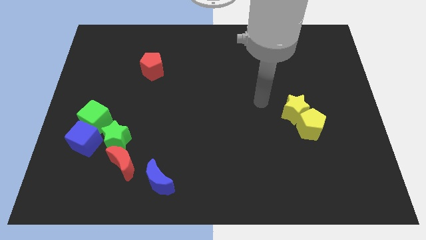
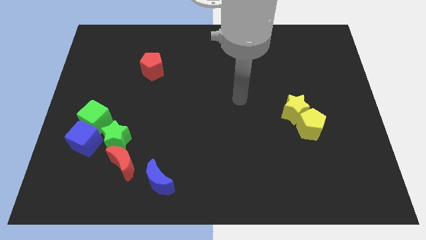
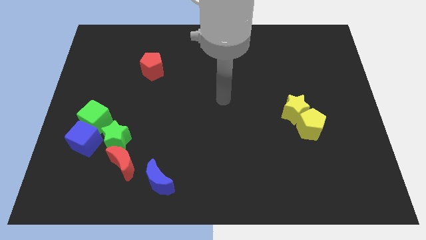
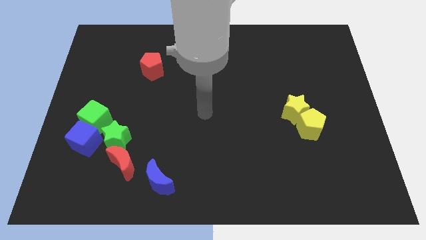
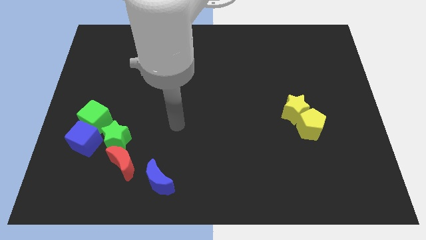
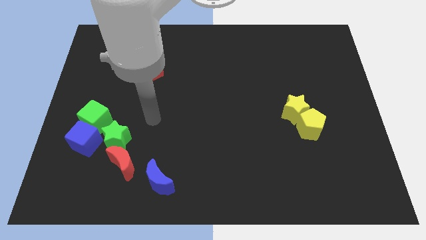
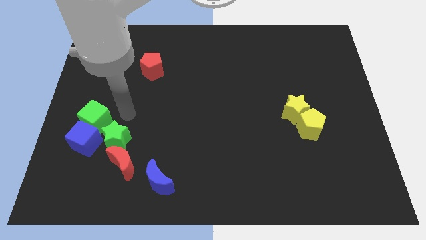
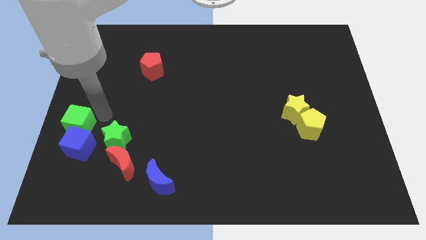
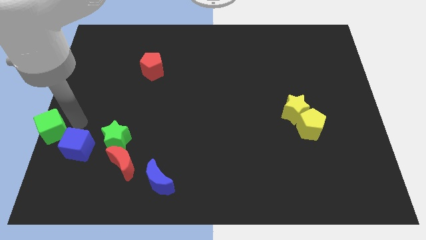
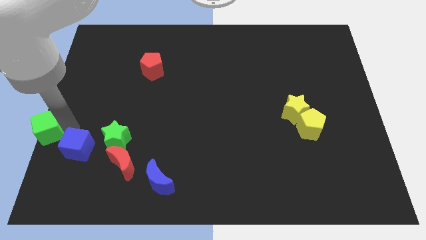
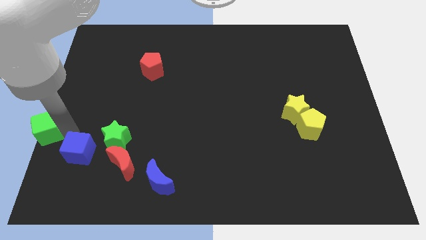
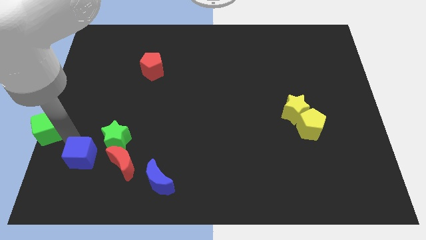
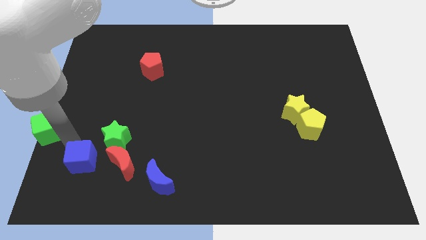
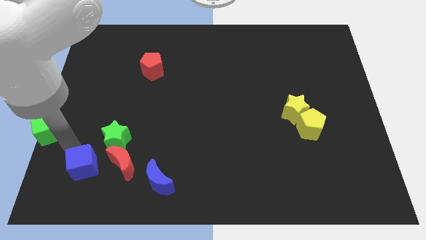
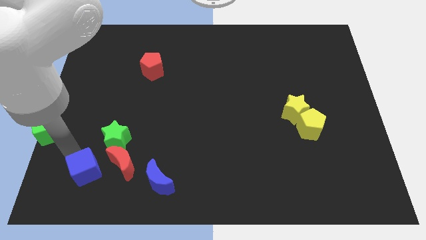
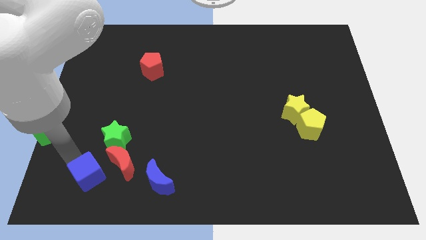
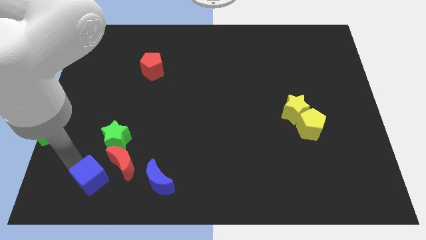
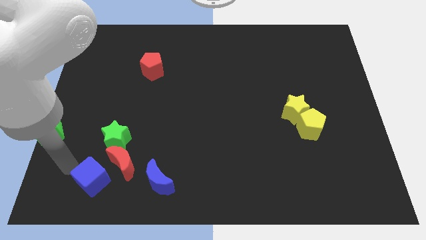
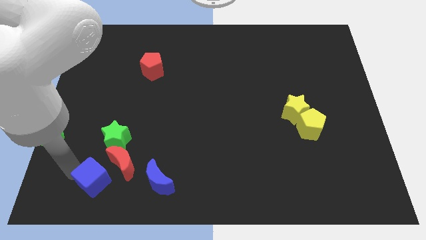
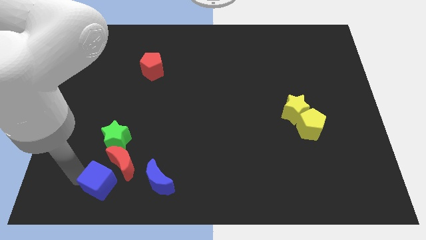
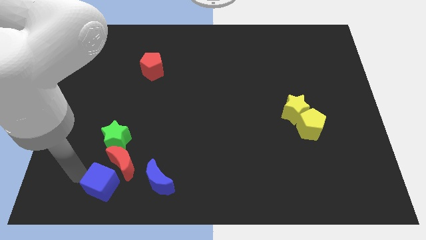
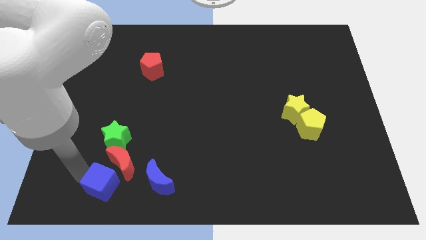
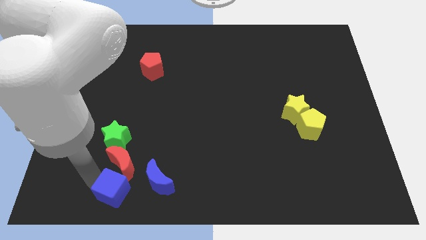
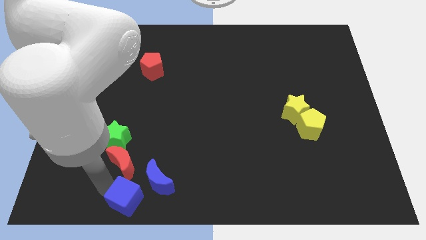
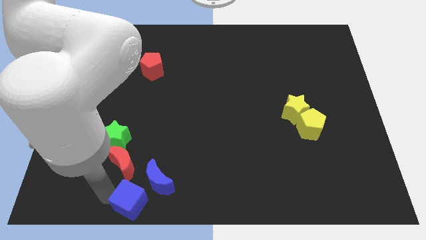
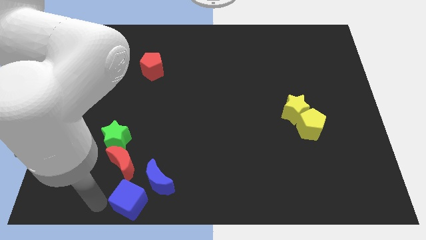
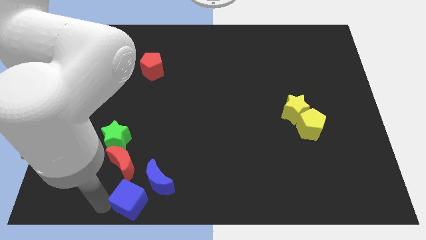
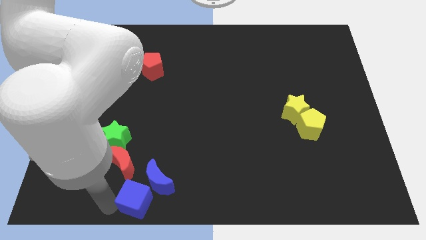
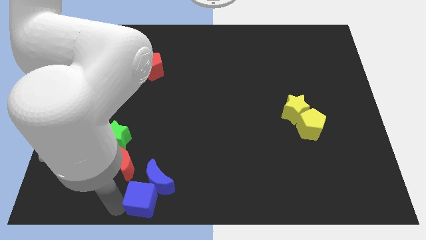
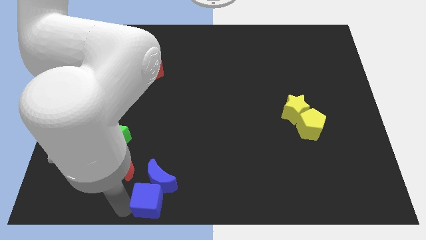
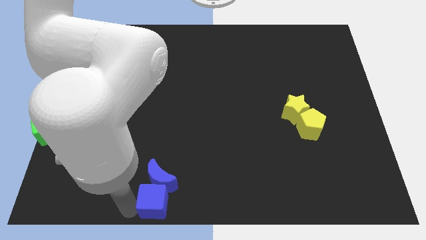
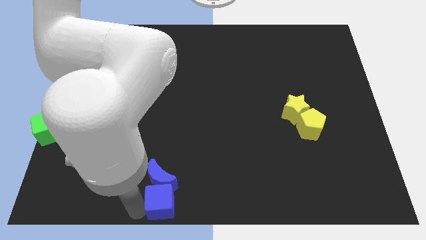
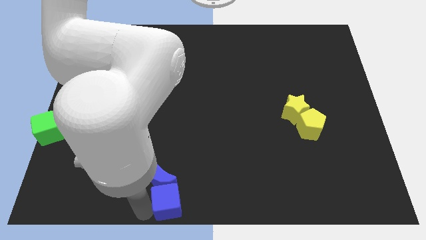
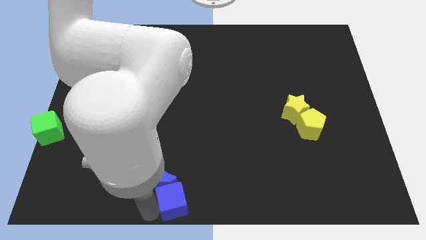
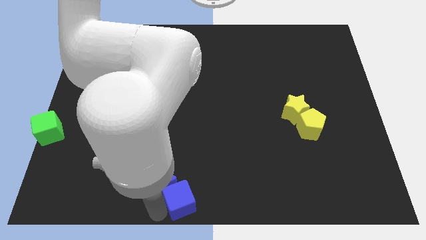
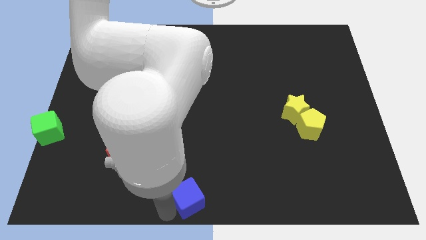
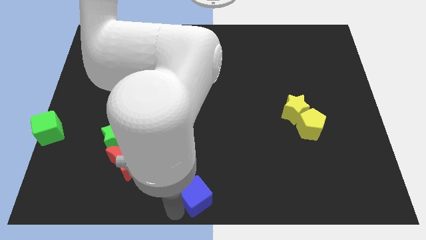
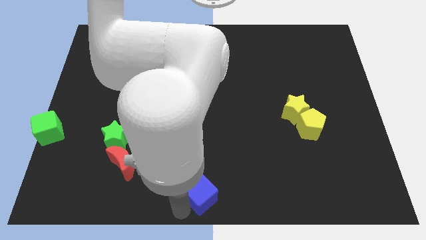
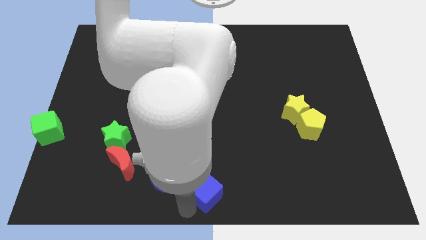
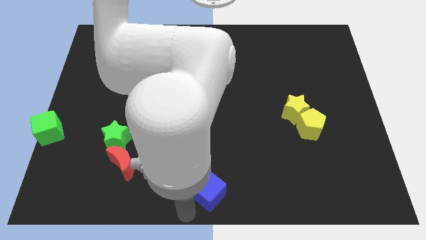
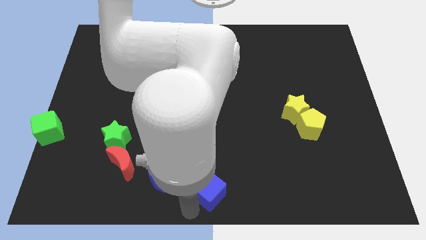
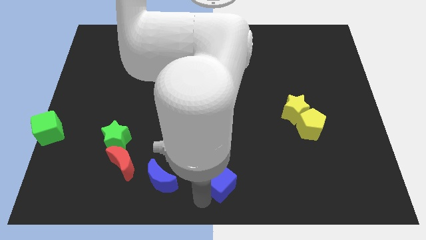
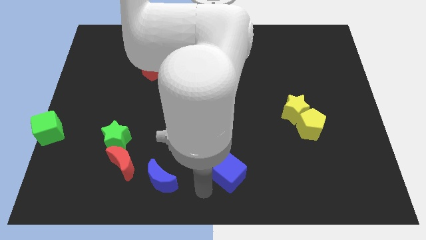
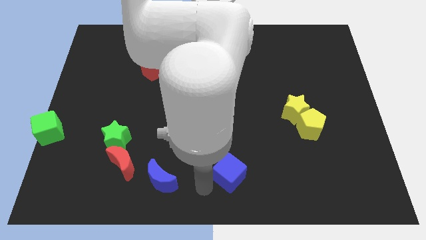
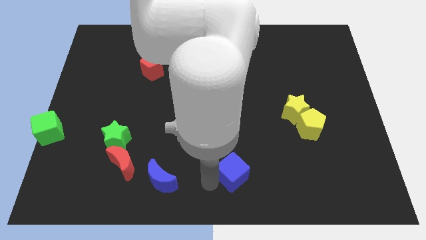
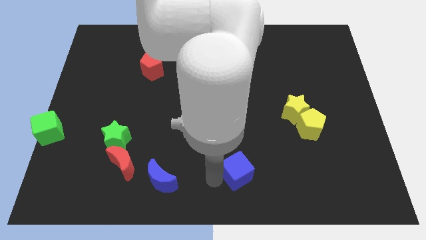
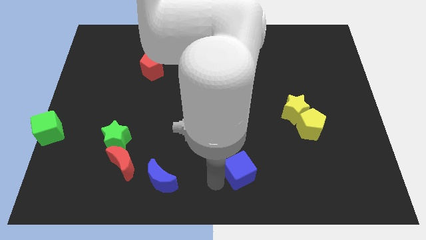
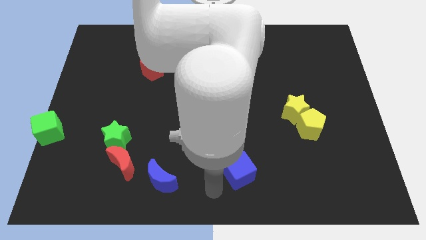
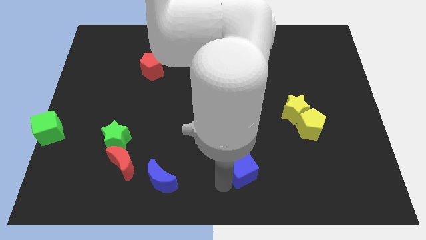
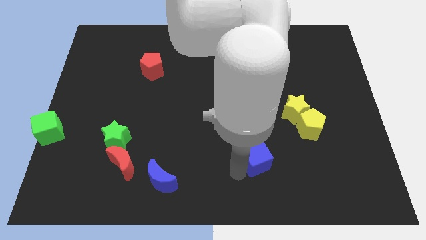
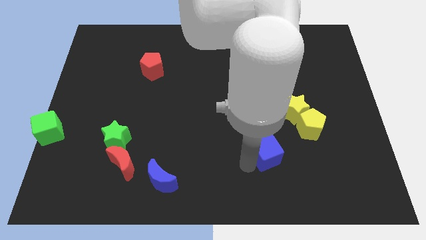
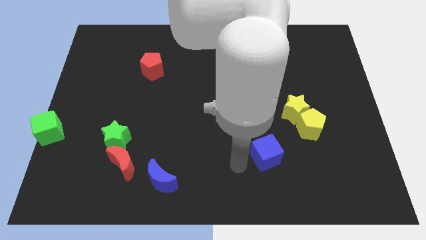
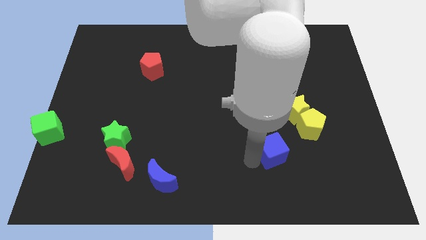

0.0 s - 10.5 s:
put the blue cube diagonally down and to the left of the yellow pentagon

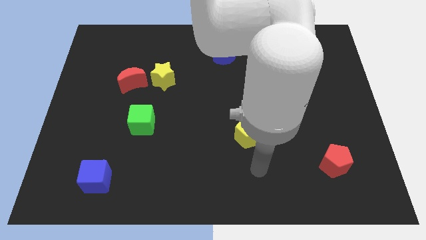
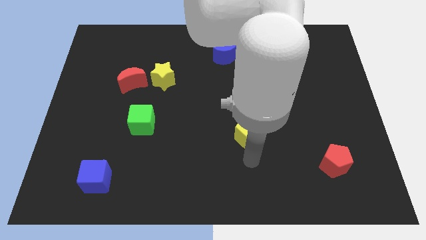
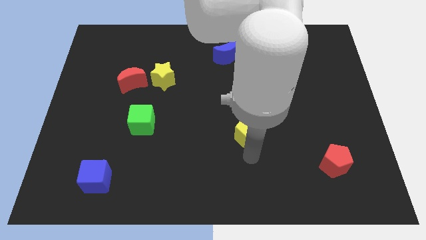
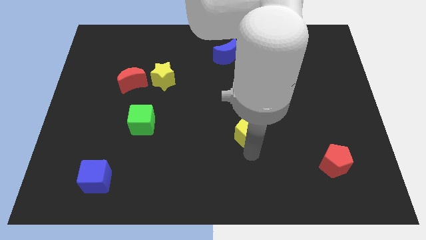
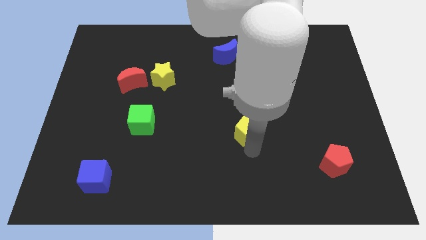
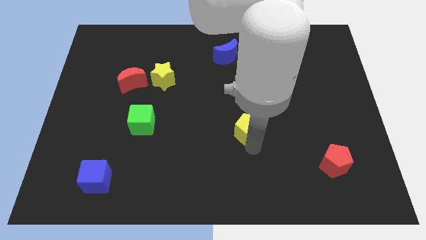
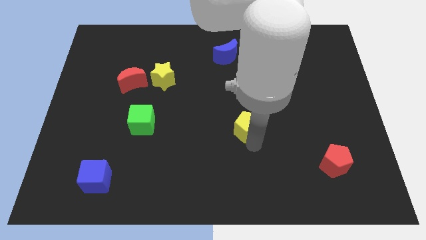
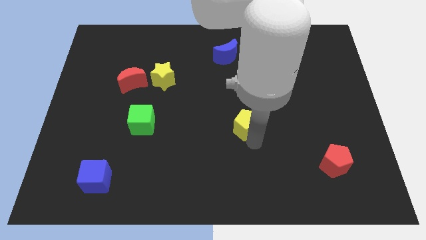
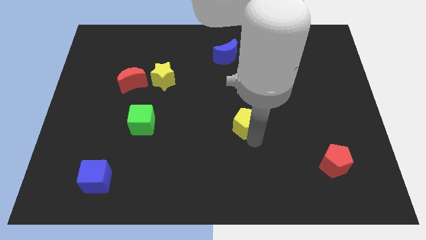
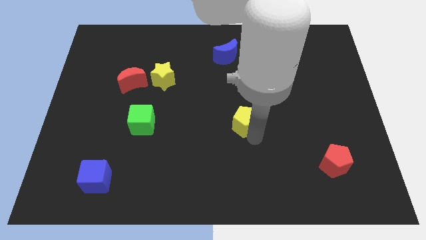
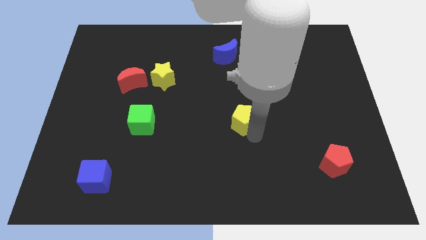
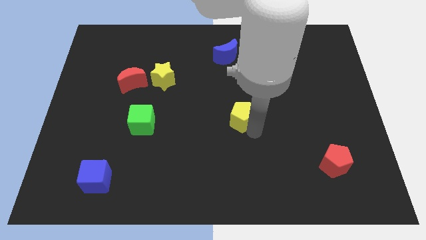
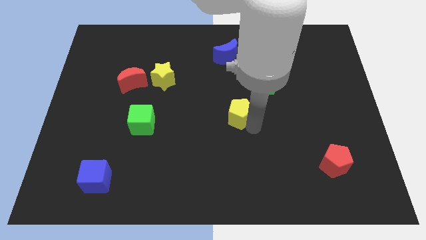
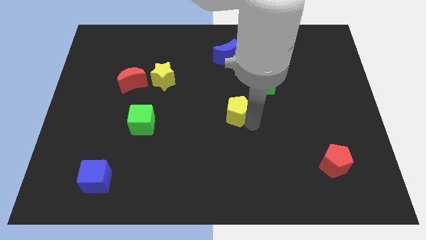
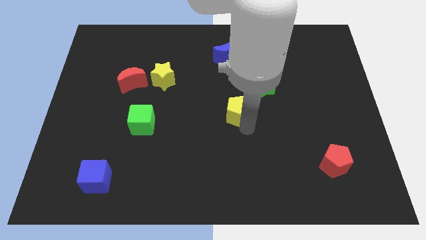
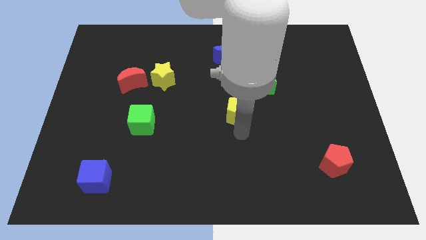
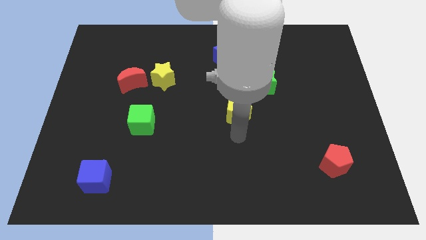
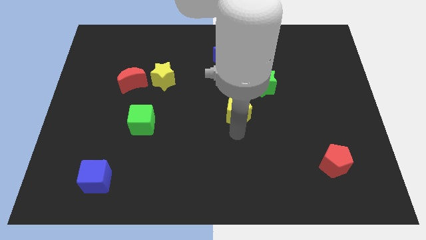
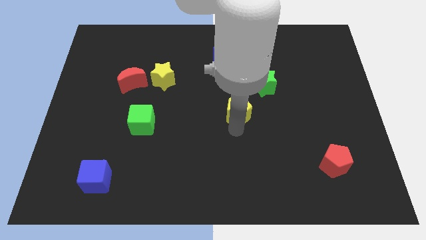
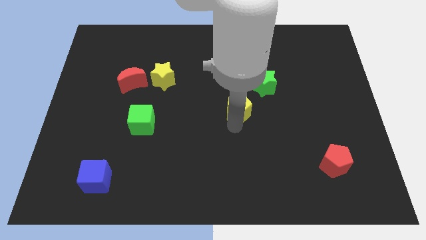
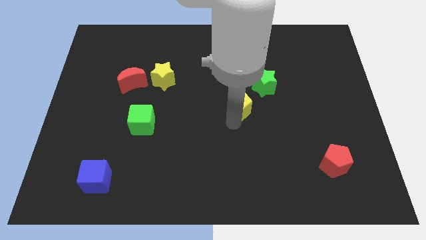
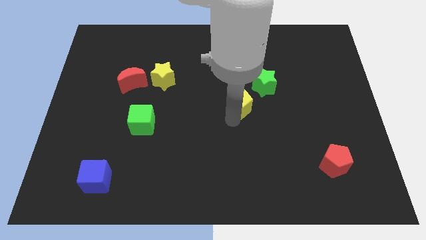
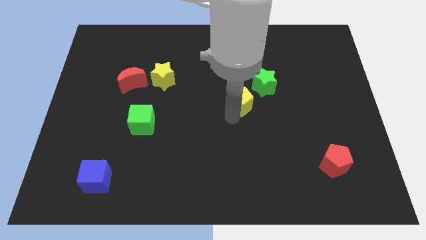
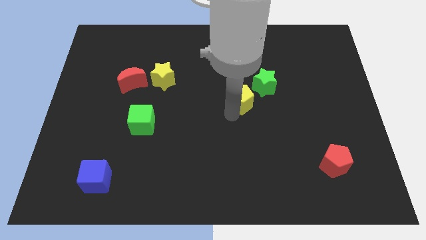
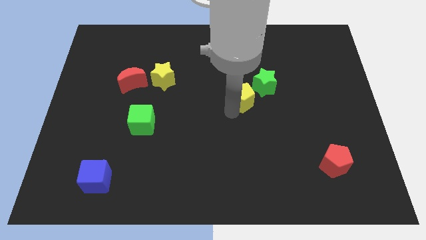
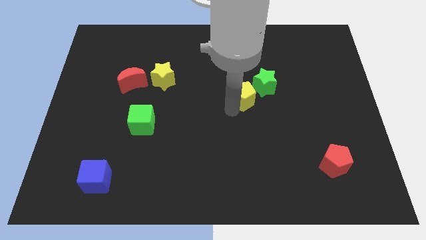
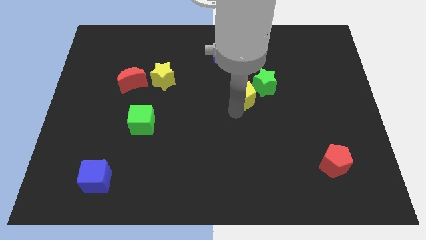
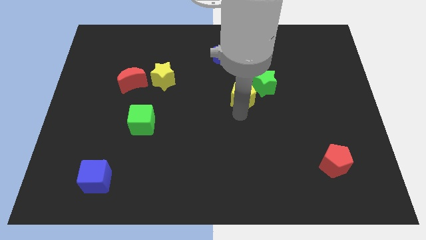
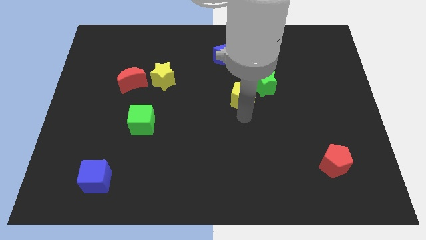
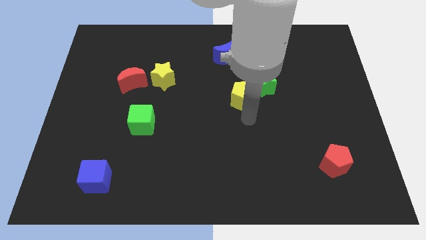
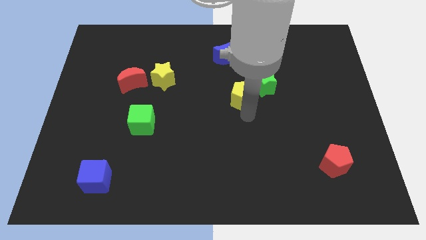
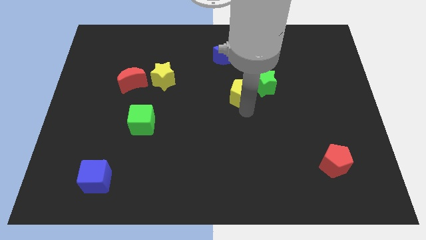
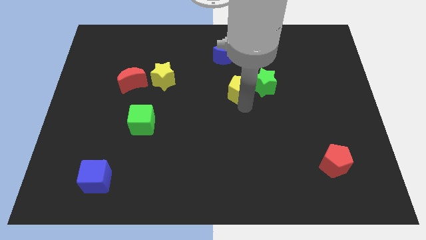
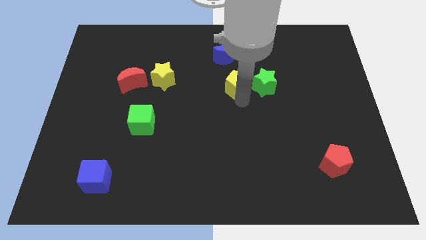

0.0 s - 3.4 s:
move the yellow pentagon diagonally up and to the left of the green star
